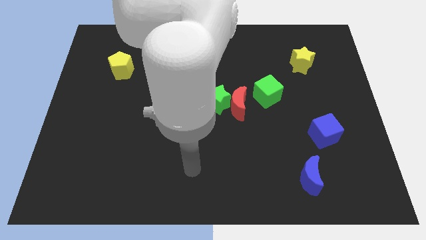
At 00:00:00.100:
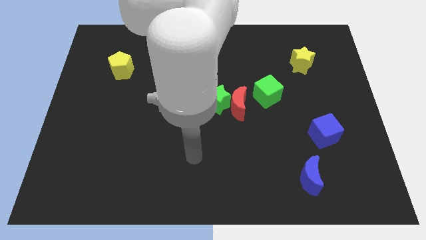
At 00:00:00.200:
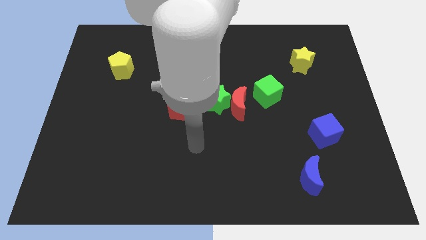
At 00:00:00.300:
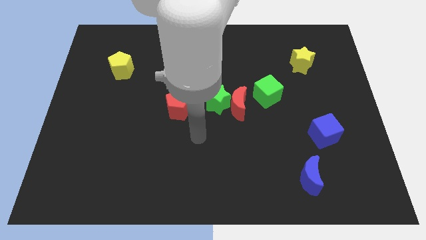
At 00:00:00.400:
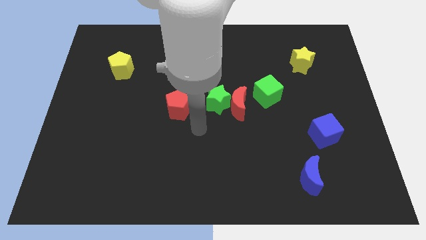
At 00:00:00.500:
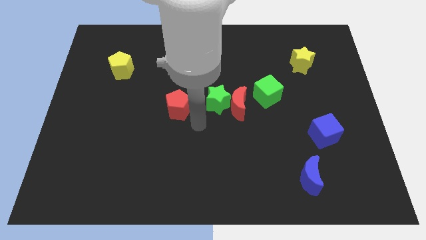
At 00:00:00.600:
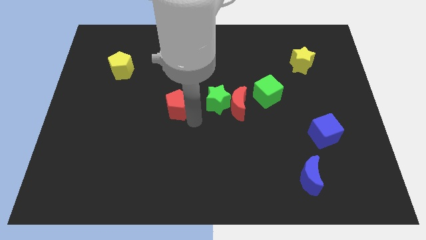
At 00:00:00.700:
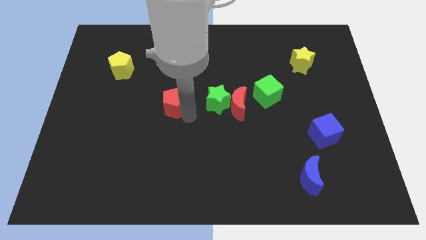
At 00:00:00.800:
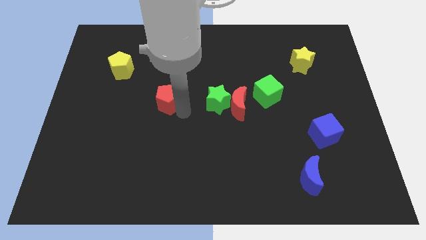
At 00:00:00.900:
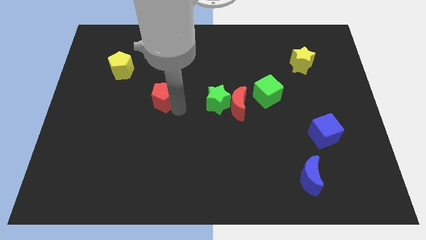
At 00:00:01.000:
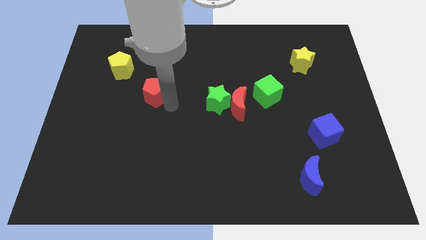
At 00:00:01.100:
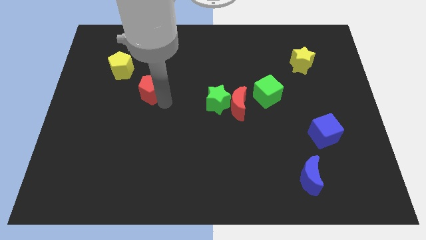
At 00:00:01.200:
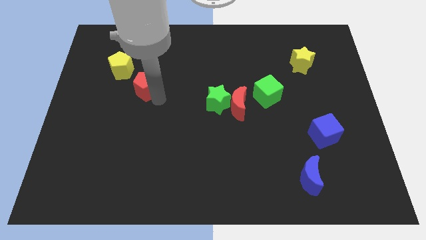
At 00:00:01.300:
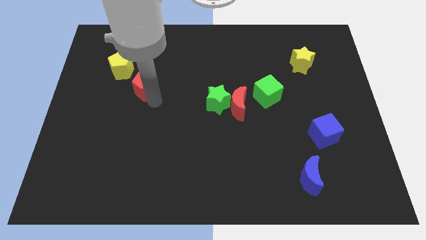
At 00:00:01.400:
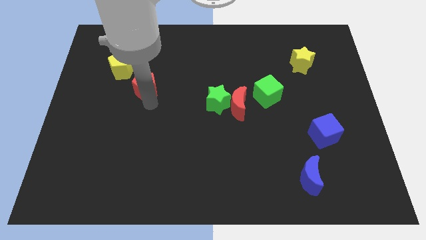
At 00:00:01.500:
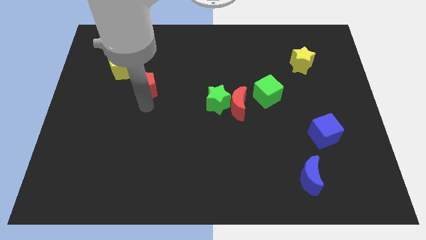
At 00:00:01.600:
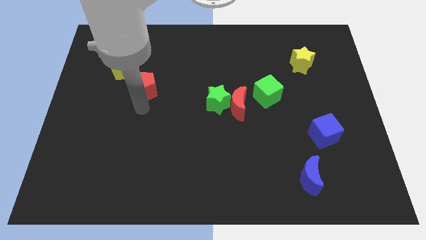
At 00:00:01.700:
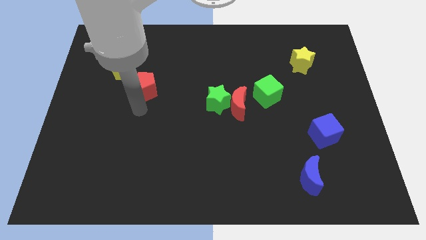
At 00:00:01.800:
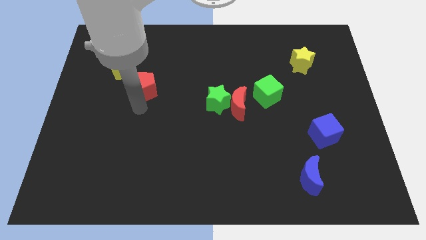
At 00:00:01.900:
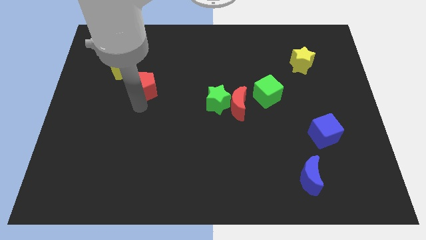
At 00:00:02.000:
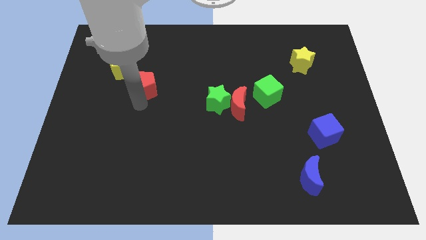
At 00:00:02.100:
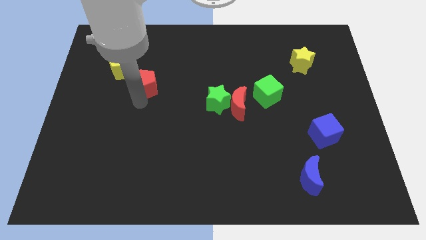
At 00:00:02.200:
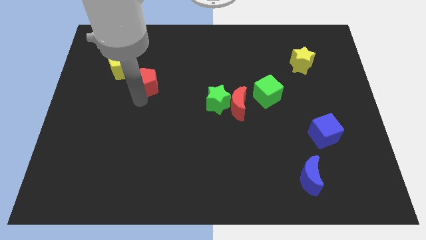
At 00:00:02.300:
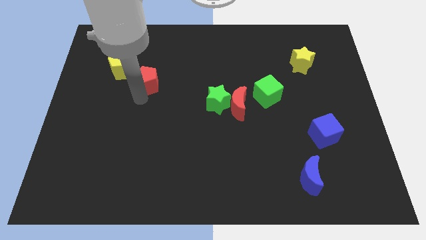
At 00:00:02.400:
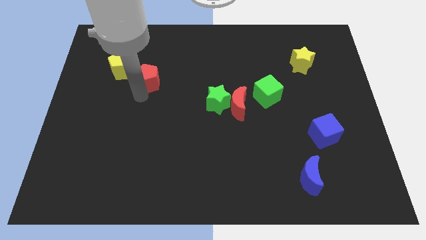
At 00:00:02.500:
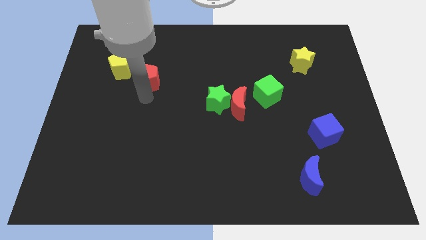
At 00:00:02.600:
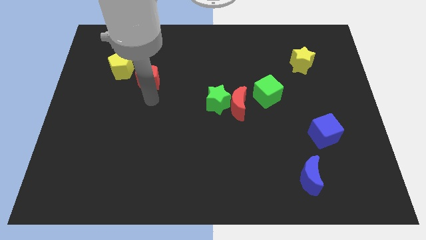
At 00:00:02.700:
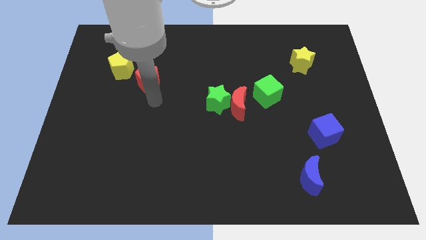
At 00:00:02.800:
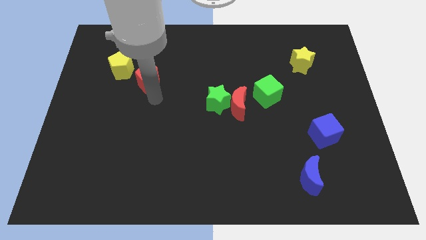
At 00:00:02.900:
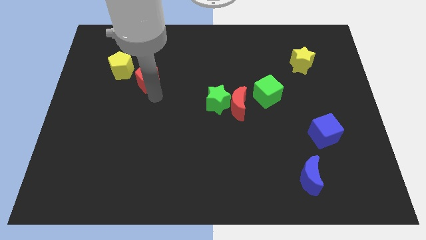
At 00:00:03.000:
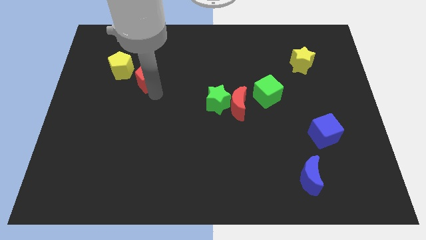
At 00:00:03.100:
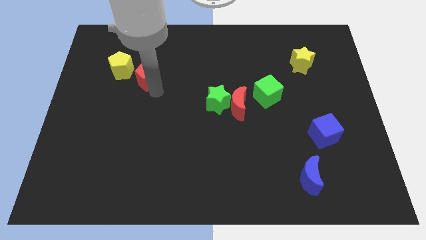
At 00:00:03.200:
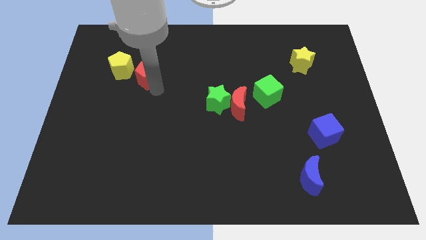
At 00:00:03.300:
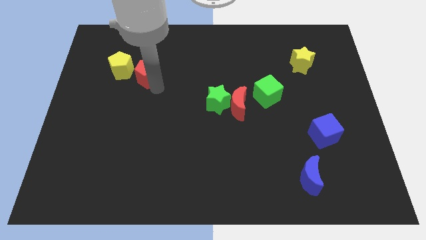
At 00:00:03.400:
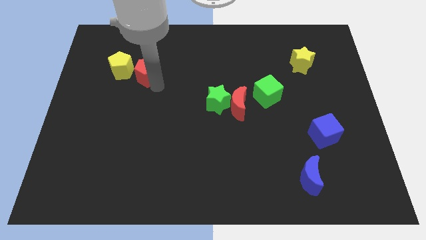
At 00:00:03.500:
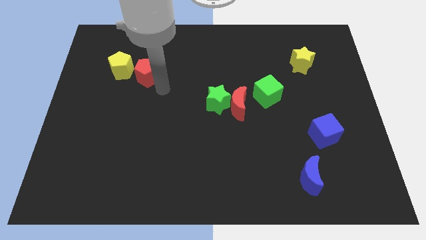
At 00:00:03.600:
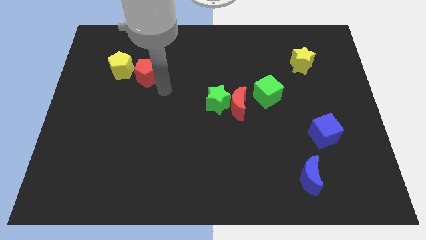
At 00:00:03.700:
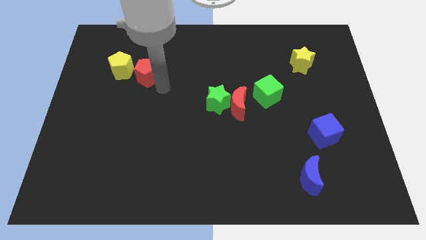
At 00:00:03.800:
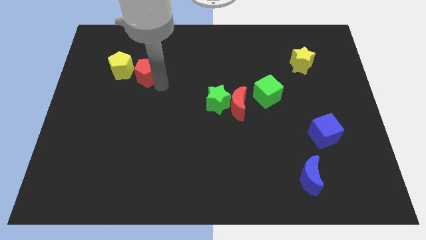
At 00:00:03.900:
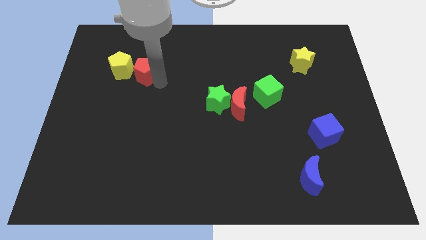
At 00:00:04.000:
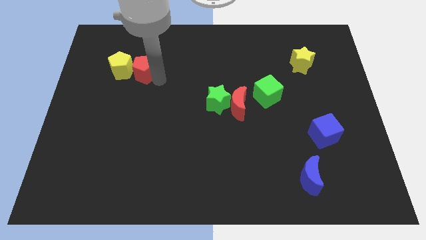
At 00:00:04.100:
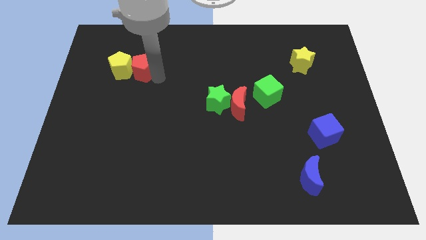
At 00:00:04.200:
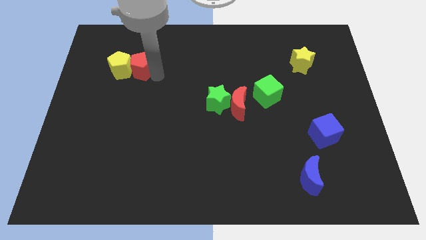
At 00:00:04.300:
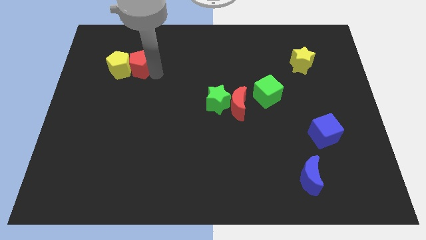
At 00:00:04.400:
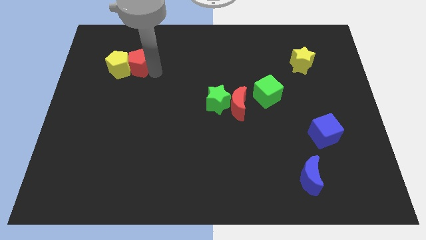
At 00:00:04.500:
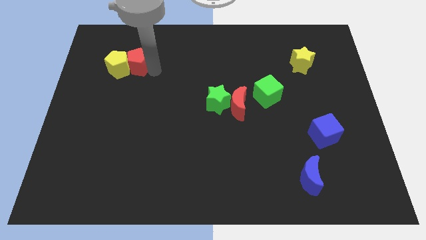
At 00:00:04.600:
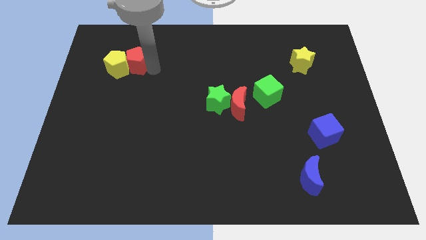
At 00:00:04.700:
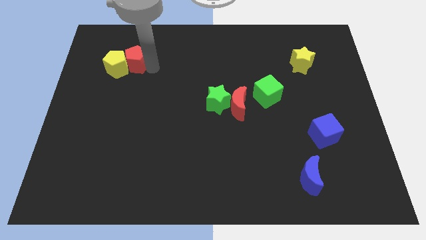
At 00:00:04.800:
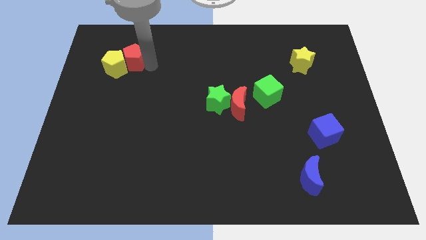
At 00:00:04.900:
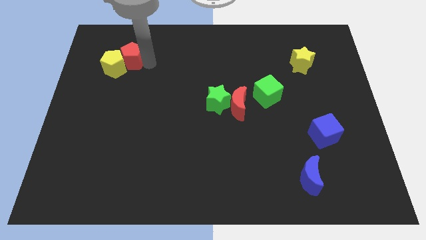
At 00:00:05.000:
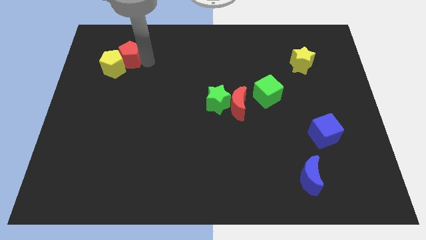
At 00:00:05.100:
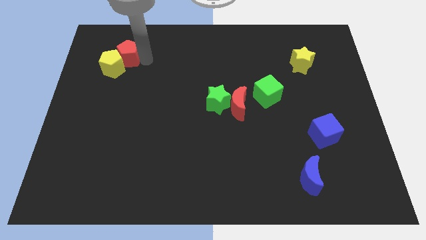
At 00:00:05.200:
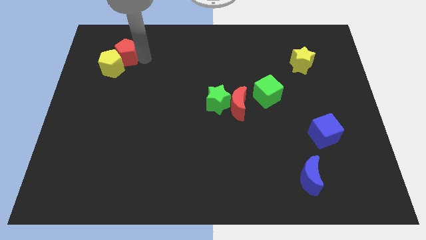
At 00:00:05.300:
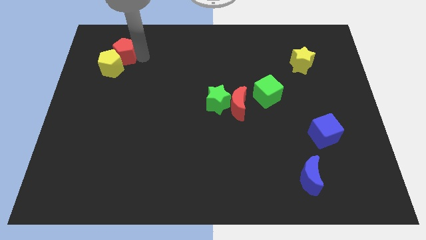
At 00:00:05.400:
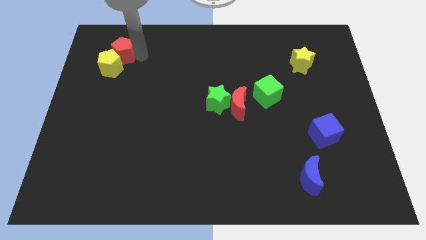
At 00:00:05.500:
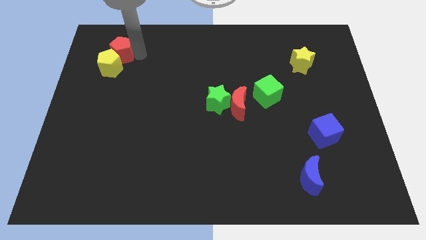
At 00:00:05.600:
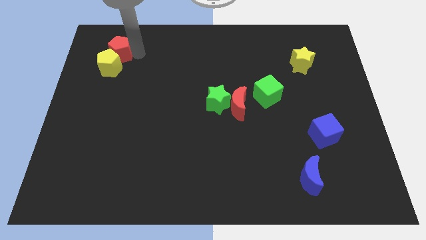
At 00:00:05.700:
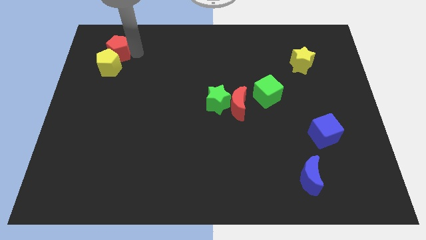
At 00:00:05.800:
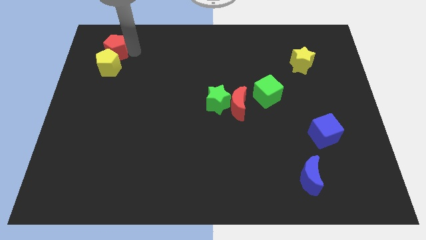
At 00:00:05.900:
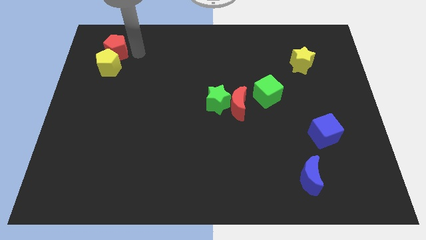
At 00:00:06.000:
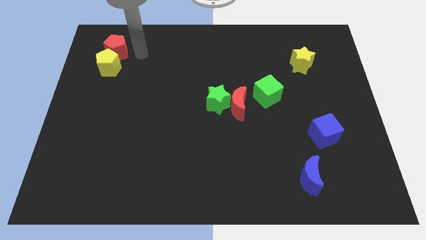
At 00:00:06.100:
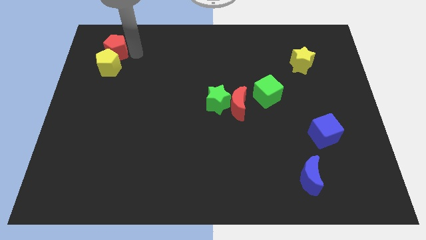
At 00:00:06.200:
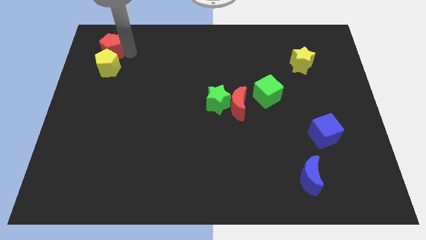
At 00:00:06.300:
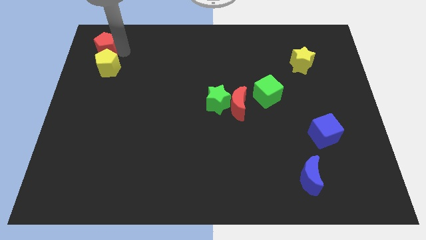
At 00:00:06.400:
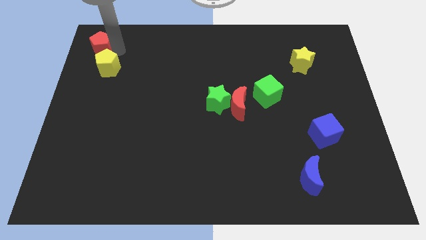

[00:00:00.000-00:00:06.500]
move the red pentagon to the top left

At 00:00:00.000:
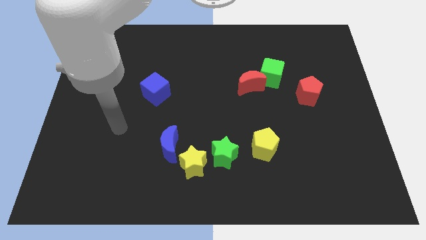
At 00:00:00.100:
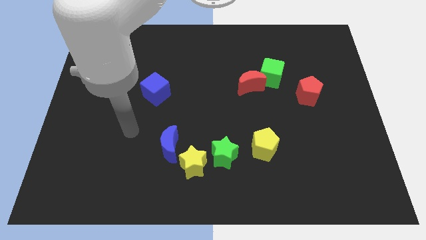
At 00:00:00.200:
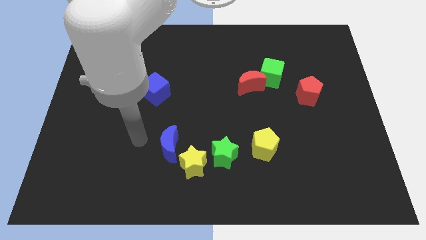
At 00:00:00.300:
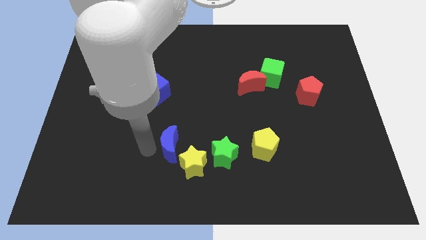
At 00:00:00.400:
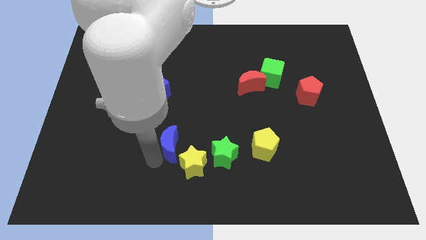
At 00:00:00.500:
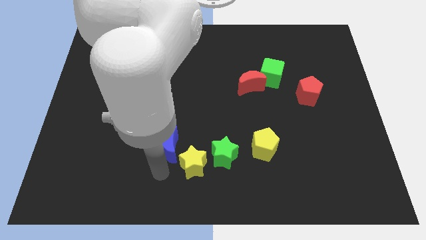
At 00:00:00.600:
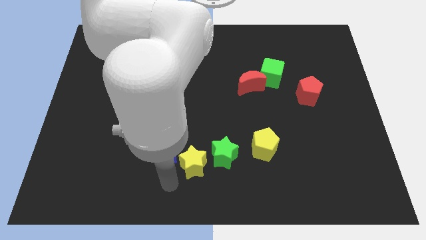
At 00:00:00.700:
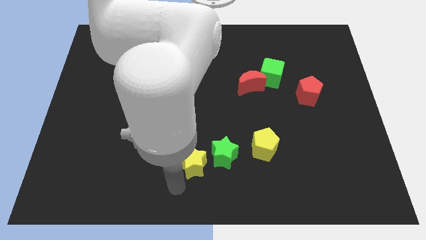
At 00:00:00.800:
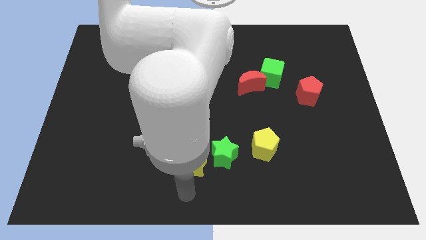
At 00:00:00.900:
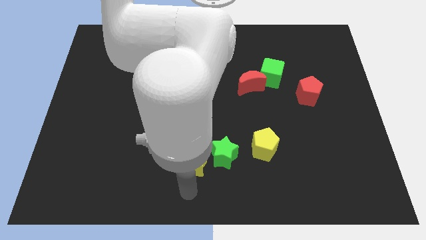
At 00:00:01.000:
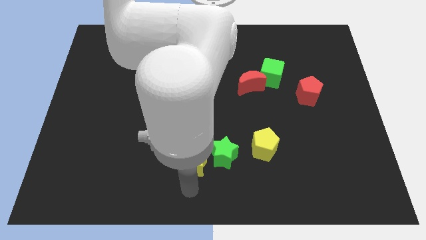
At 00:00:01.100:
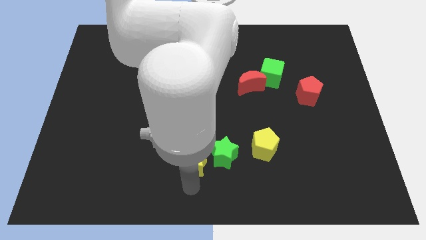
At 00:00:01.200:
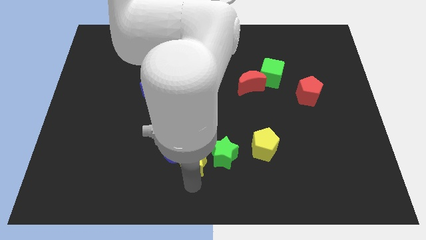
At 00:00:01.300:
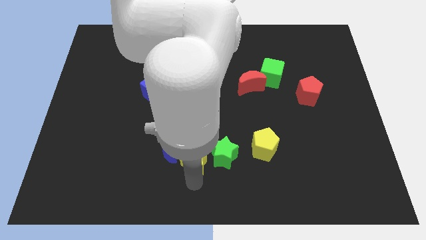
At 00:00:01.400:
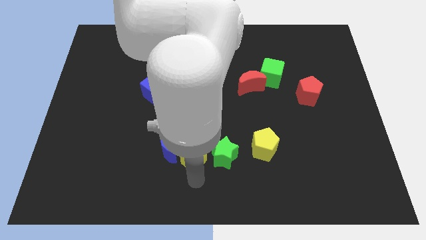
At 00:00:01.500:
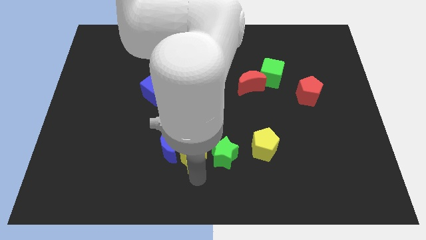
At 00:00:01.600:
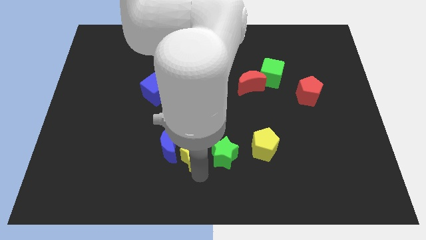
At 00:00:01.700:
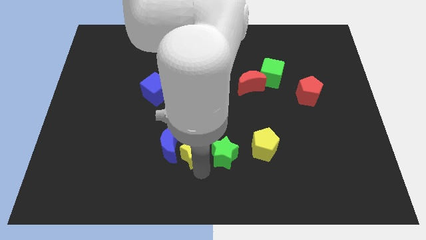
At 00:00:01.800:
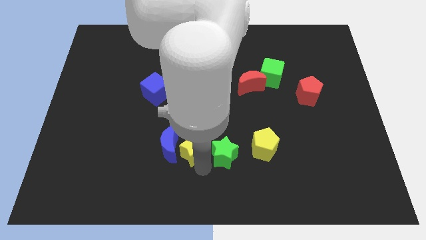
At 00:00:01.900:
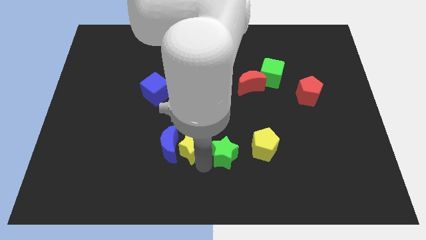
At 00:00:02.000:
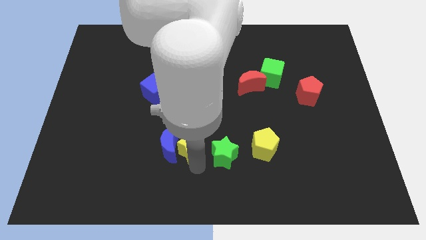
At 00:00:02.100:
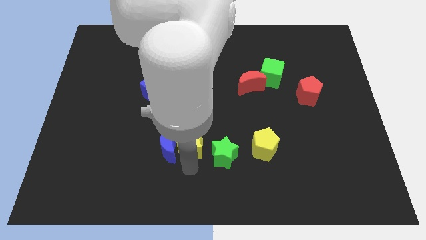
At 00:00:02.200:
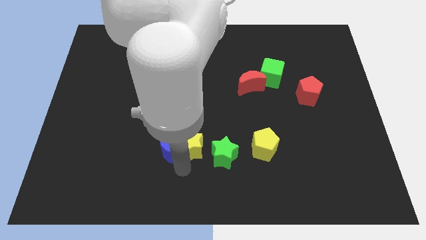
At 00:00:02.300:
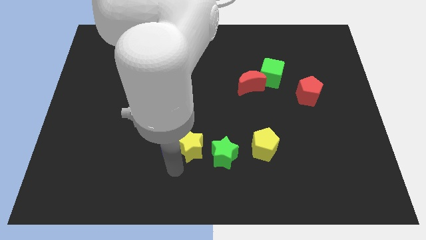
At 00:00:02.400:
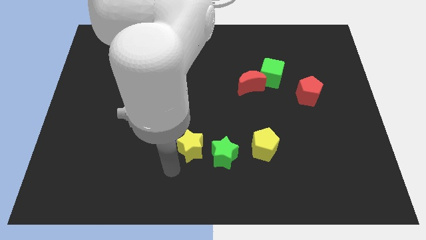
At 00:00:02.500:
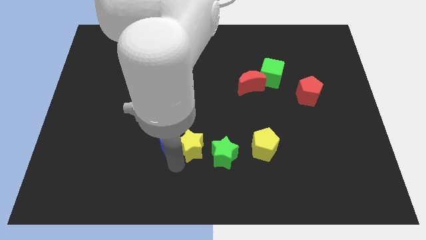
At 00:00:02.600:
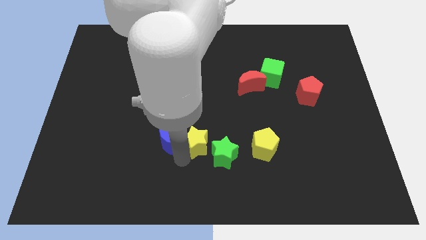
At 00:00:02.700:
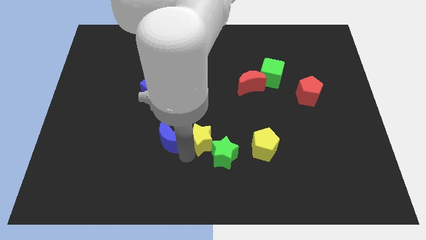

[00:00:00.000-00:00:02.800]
slide the yellow star to the middle of the board
